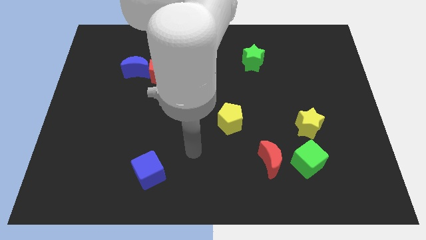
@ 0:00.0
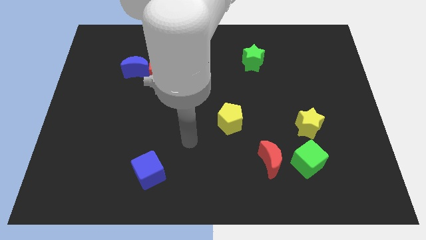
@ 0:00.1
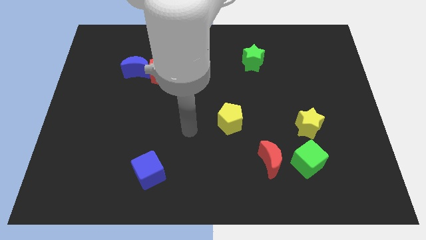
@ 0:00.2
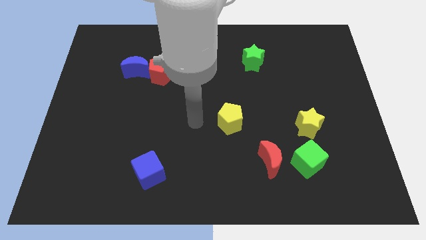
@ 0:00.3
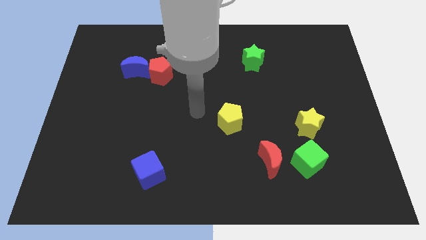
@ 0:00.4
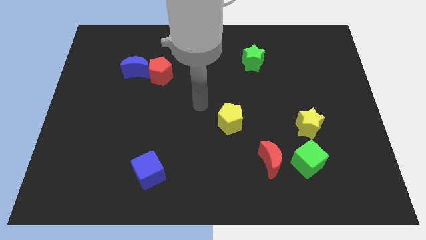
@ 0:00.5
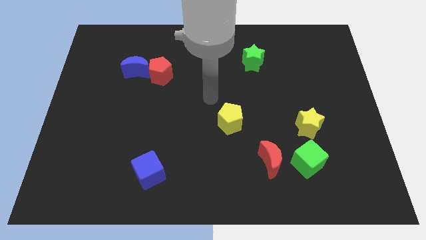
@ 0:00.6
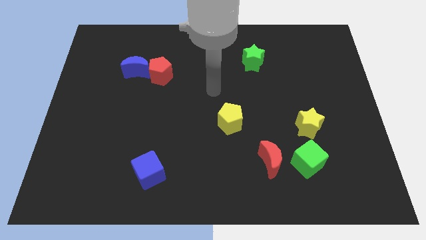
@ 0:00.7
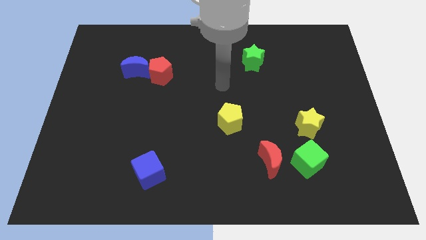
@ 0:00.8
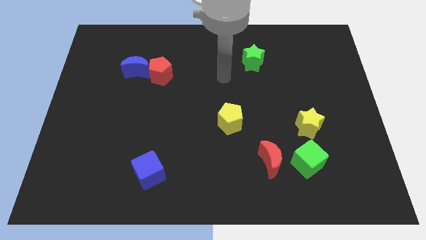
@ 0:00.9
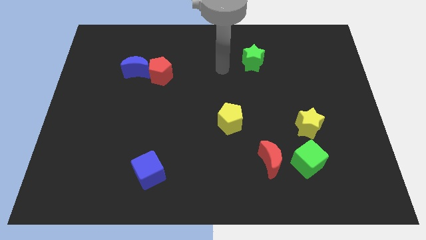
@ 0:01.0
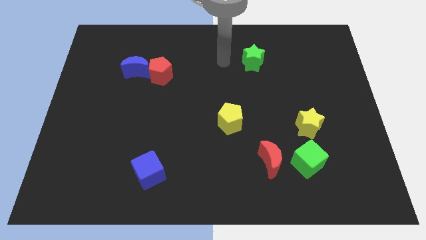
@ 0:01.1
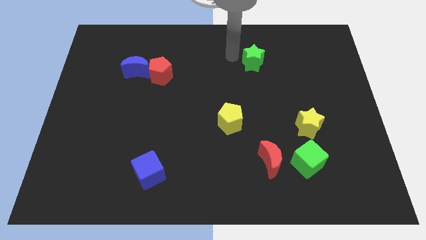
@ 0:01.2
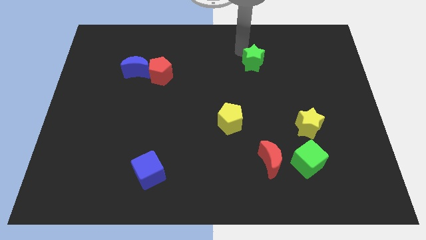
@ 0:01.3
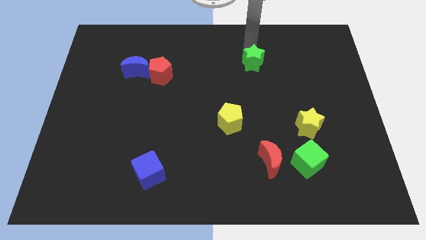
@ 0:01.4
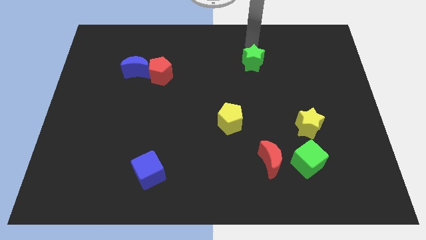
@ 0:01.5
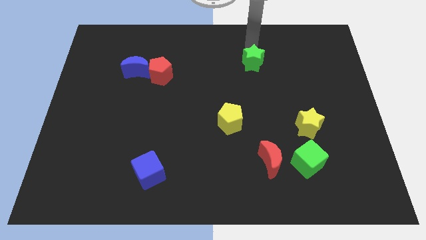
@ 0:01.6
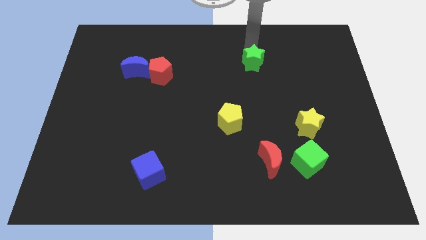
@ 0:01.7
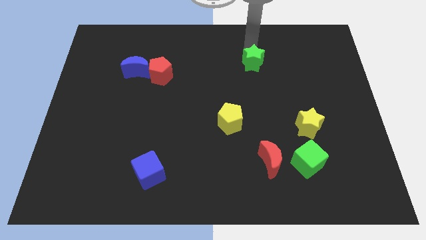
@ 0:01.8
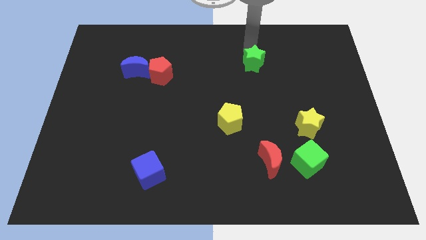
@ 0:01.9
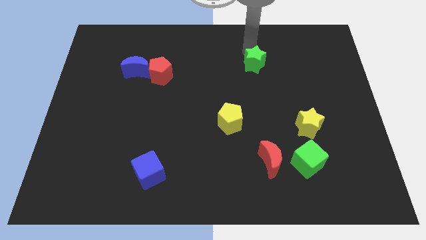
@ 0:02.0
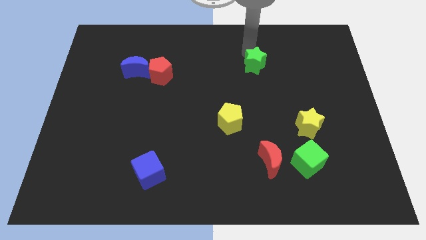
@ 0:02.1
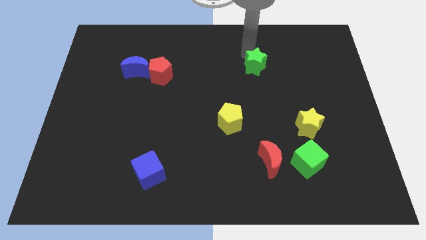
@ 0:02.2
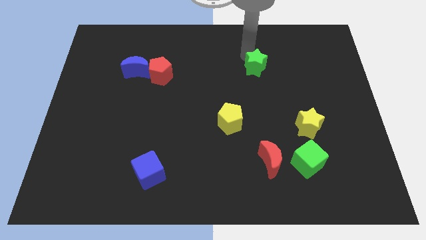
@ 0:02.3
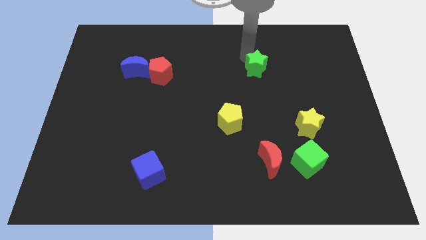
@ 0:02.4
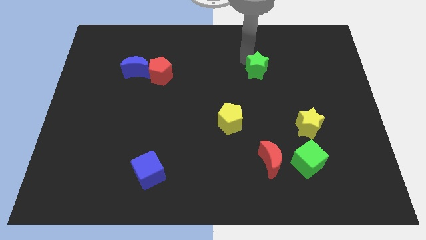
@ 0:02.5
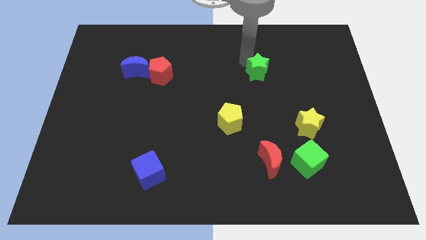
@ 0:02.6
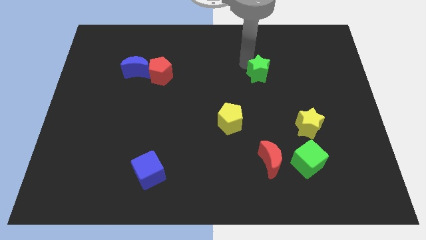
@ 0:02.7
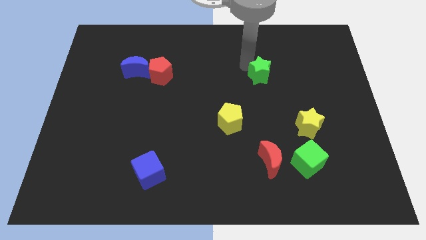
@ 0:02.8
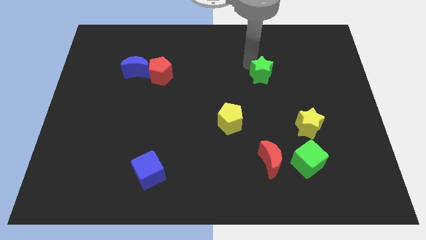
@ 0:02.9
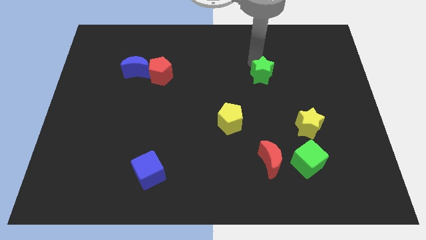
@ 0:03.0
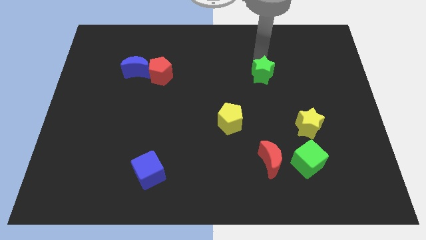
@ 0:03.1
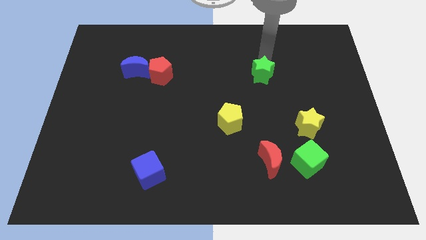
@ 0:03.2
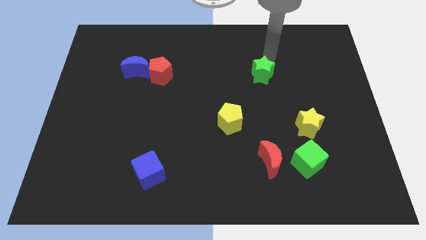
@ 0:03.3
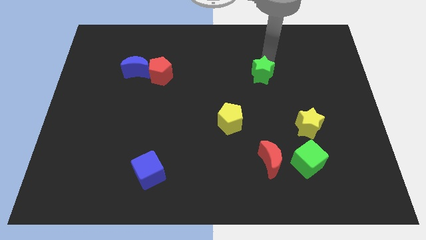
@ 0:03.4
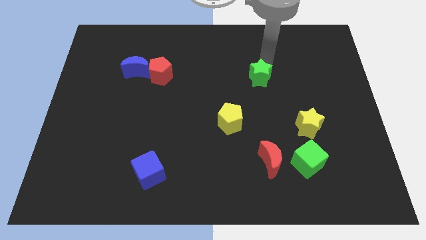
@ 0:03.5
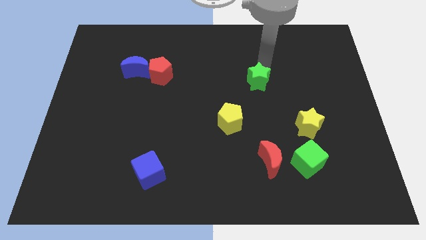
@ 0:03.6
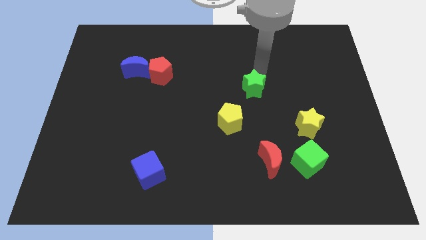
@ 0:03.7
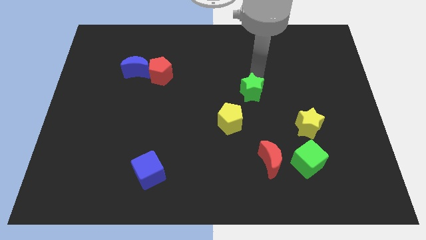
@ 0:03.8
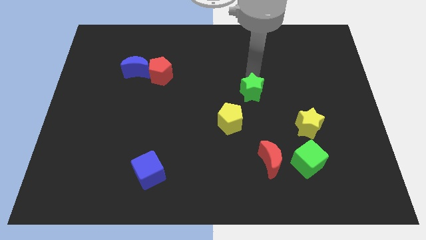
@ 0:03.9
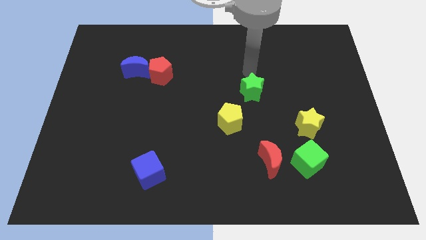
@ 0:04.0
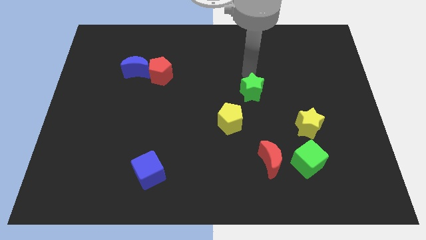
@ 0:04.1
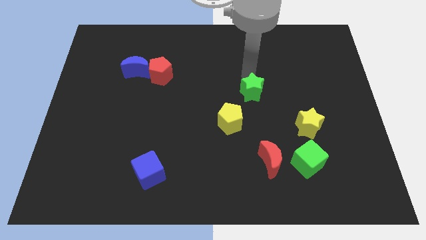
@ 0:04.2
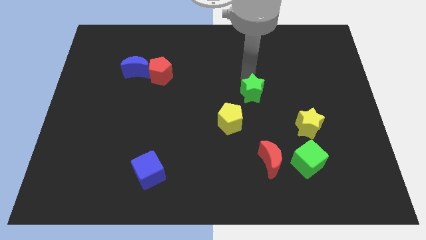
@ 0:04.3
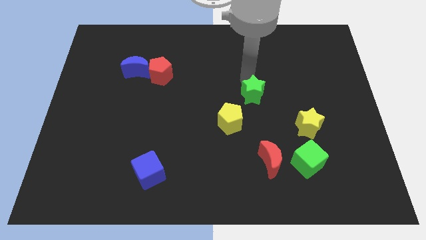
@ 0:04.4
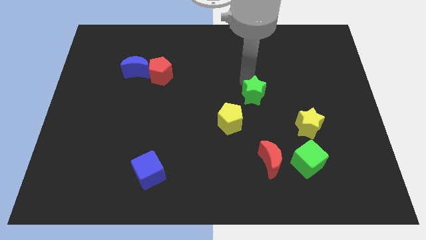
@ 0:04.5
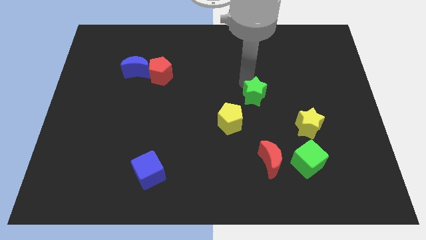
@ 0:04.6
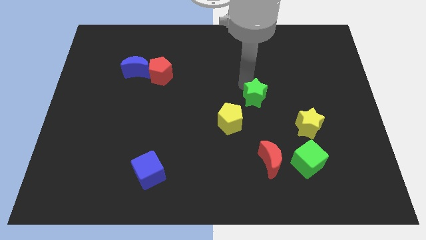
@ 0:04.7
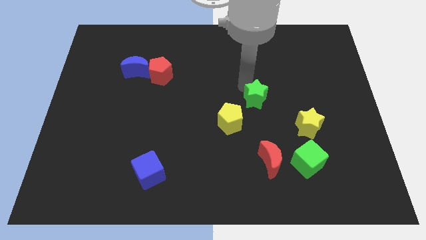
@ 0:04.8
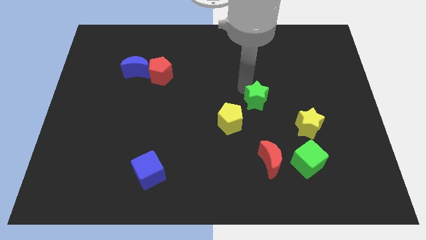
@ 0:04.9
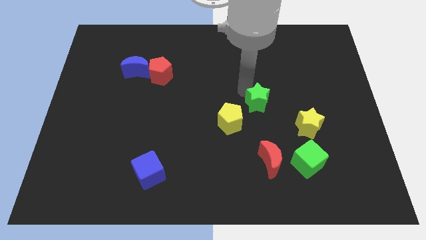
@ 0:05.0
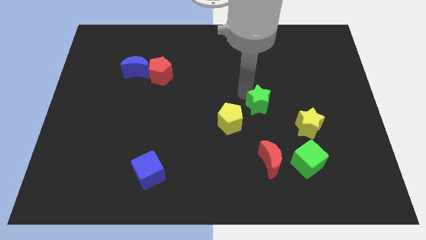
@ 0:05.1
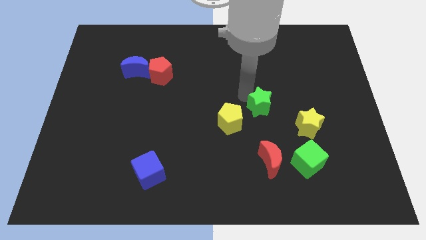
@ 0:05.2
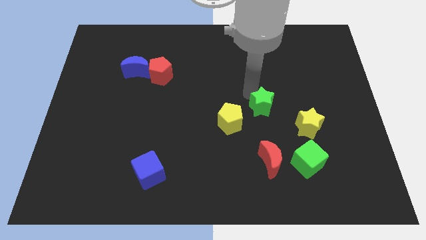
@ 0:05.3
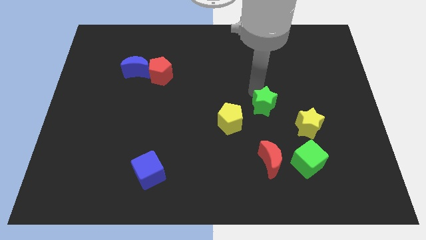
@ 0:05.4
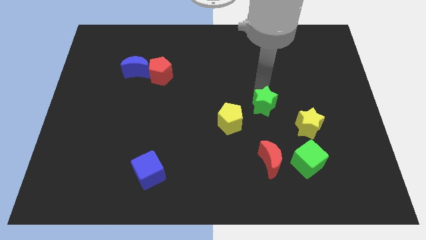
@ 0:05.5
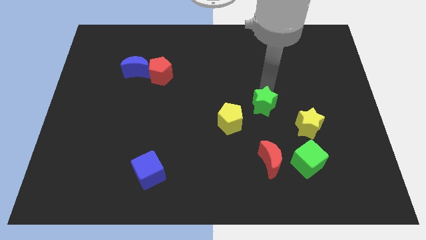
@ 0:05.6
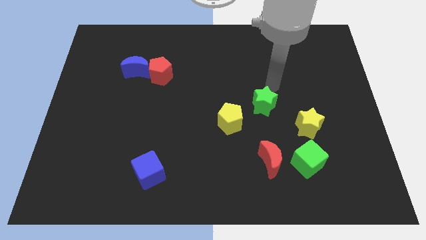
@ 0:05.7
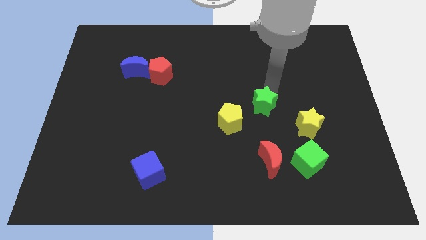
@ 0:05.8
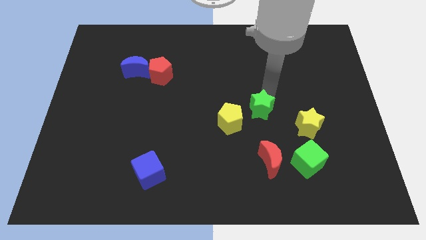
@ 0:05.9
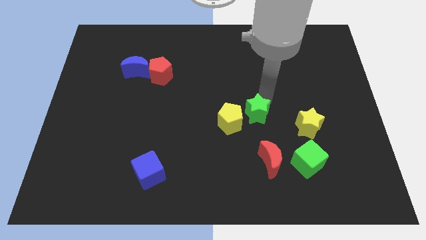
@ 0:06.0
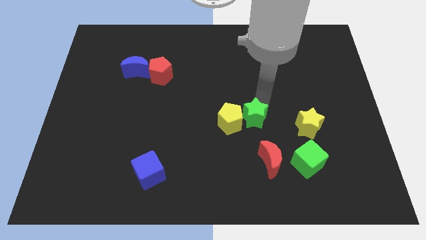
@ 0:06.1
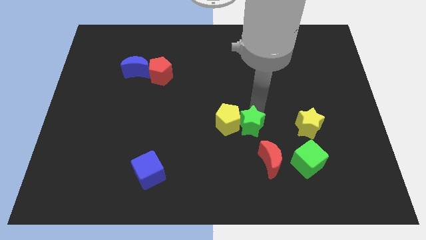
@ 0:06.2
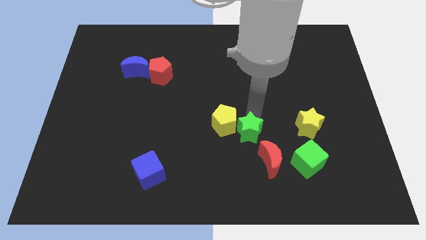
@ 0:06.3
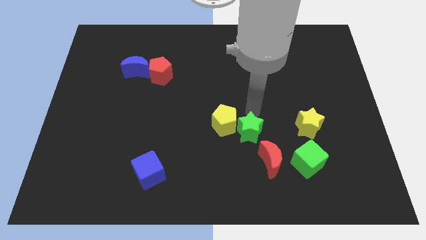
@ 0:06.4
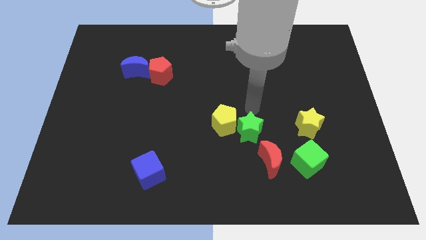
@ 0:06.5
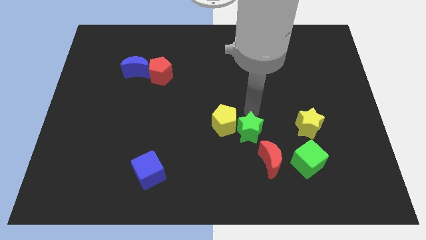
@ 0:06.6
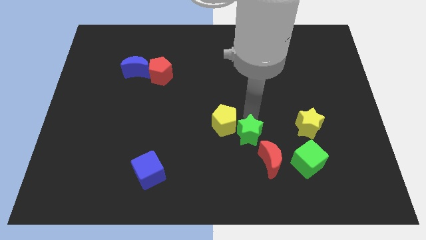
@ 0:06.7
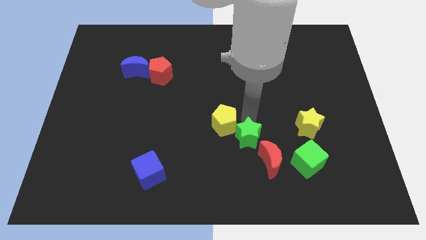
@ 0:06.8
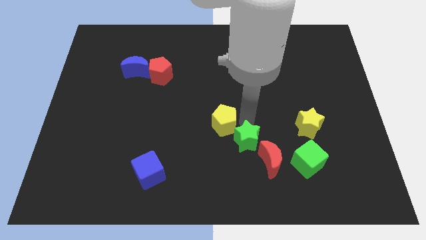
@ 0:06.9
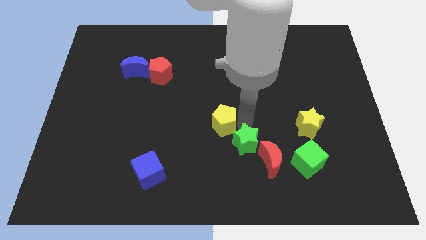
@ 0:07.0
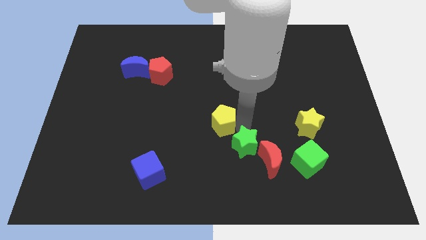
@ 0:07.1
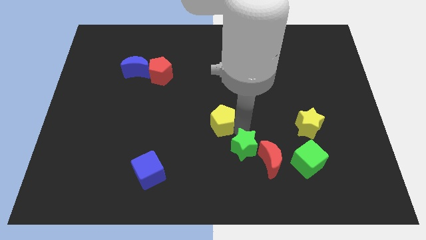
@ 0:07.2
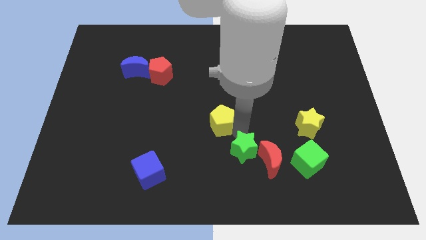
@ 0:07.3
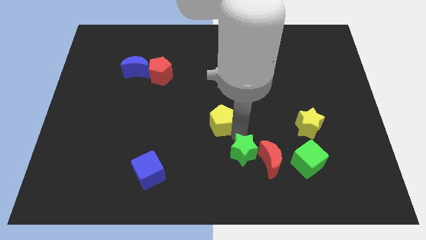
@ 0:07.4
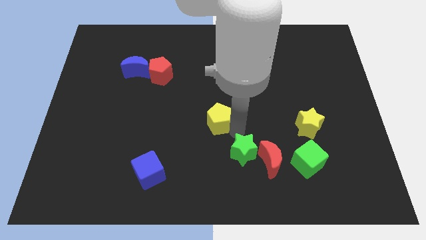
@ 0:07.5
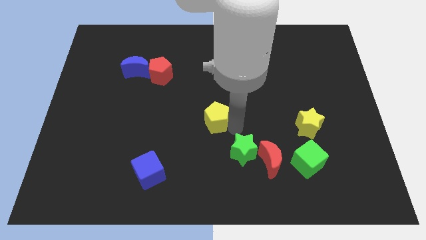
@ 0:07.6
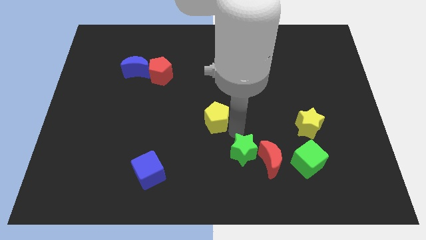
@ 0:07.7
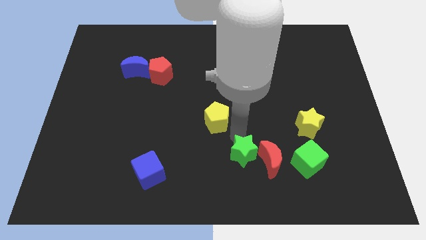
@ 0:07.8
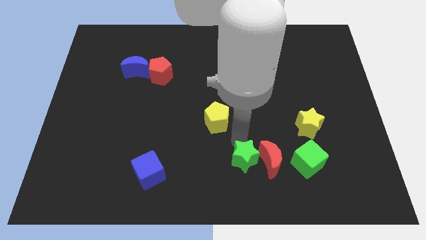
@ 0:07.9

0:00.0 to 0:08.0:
move the green star to the bottom side
